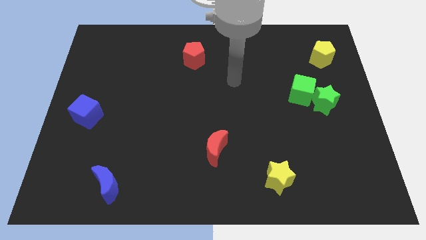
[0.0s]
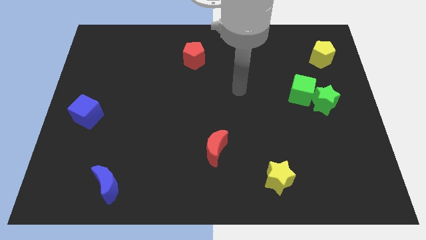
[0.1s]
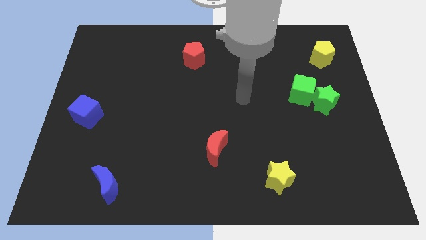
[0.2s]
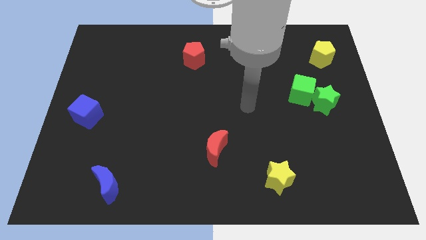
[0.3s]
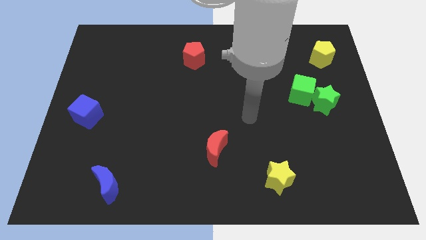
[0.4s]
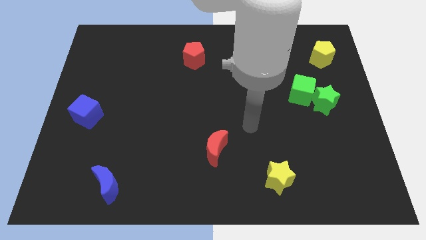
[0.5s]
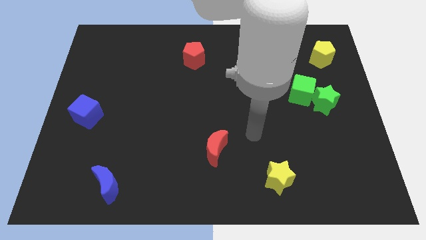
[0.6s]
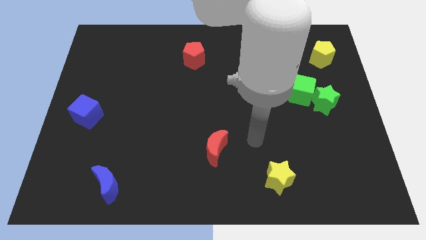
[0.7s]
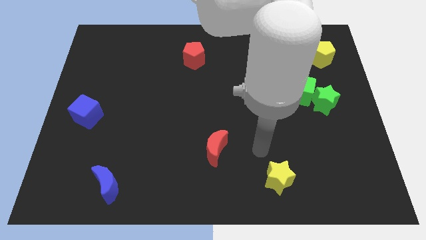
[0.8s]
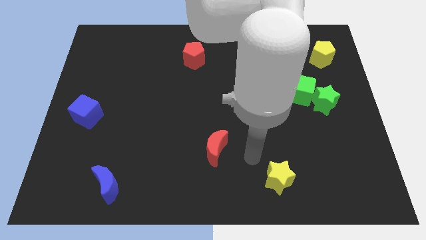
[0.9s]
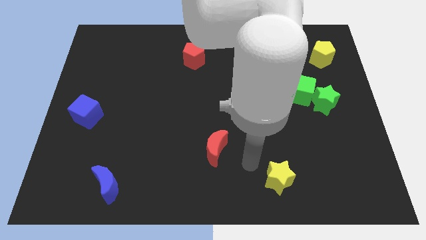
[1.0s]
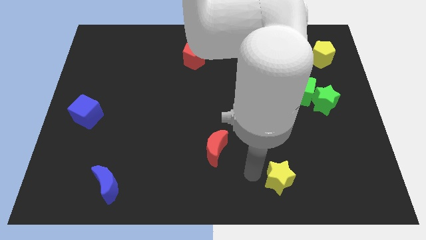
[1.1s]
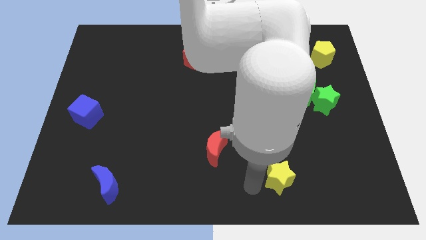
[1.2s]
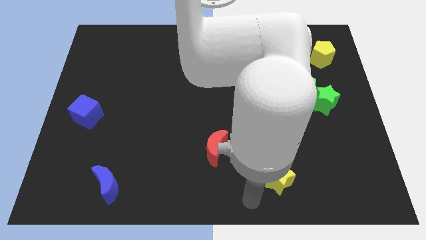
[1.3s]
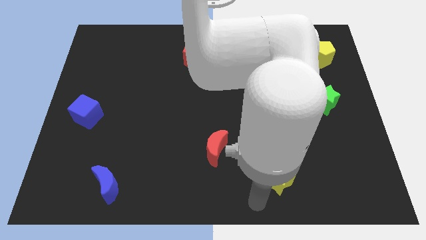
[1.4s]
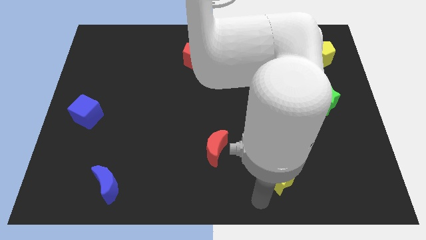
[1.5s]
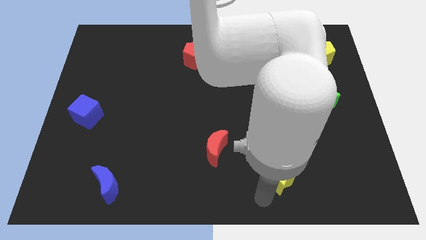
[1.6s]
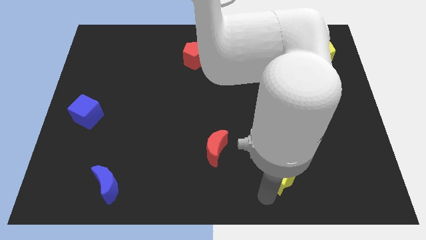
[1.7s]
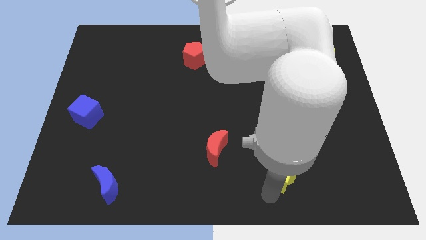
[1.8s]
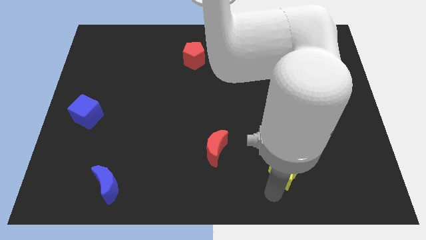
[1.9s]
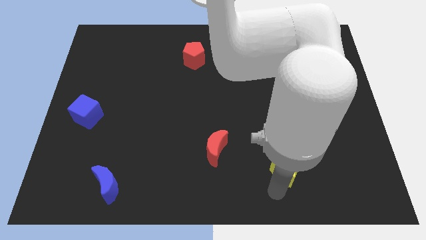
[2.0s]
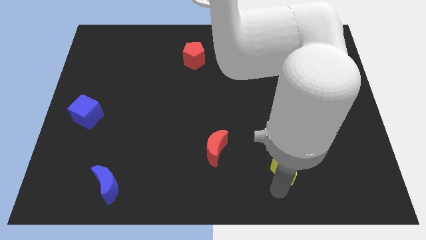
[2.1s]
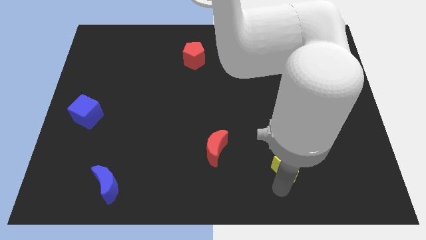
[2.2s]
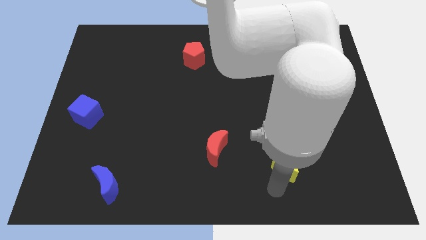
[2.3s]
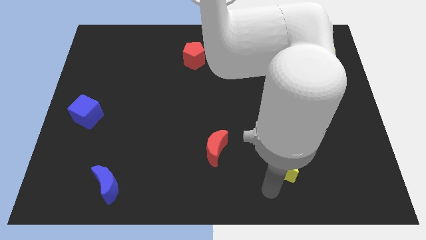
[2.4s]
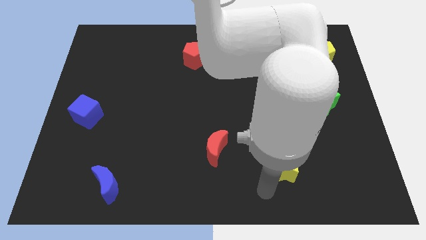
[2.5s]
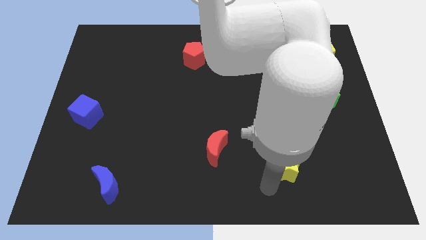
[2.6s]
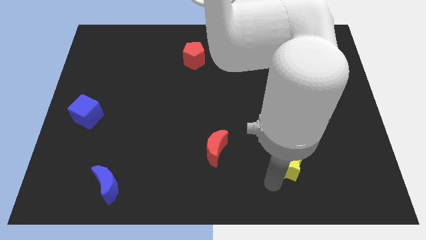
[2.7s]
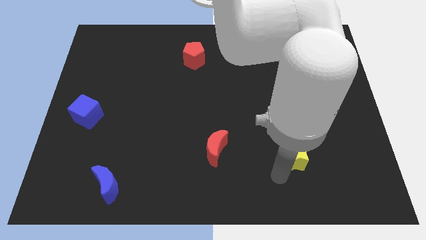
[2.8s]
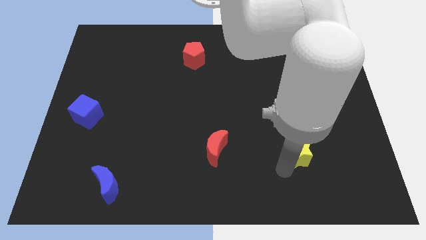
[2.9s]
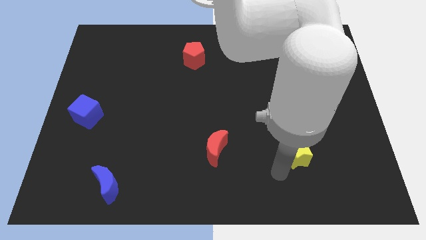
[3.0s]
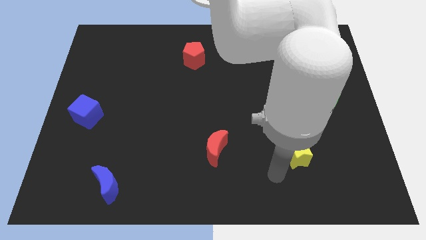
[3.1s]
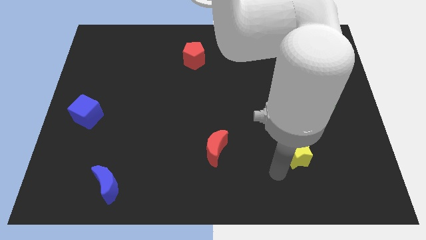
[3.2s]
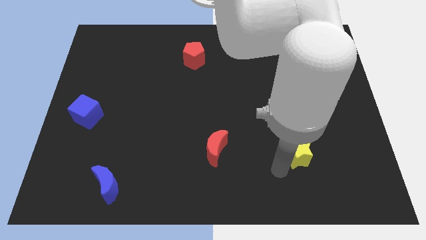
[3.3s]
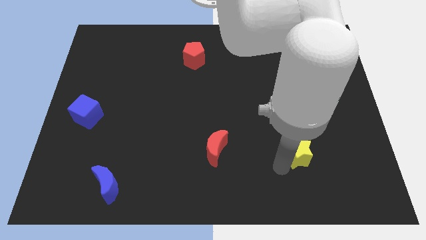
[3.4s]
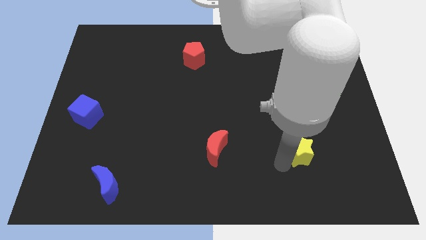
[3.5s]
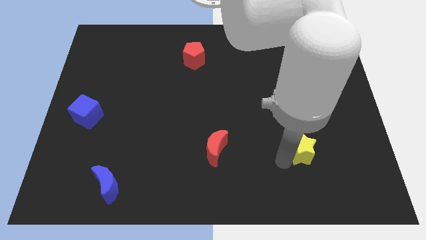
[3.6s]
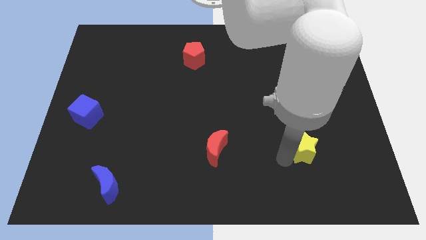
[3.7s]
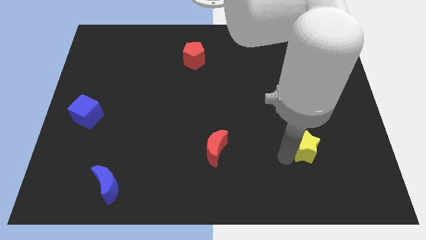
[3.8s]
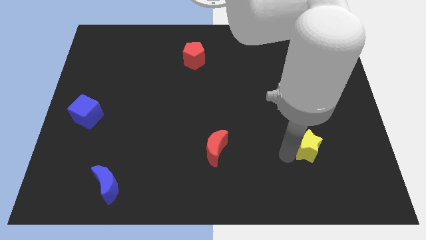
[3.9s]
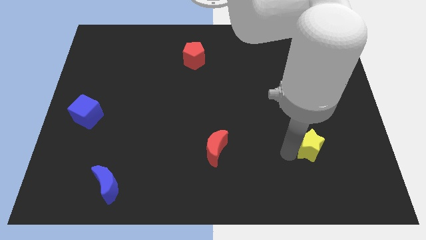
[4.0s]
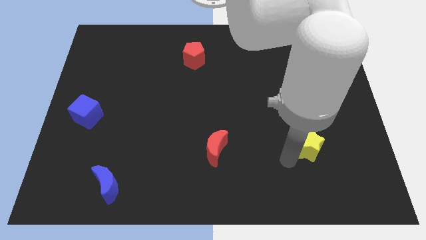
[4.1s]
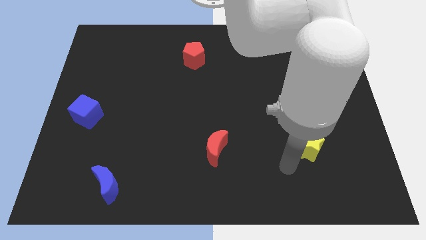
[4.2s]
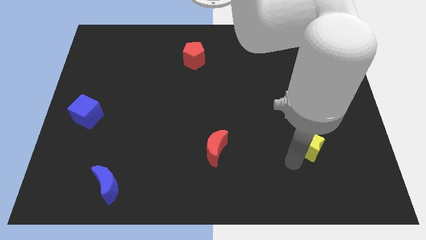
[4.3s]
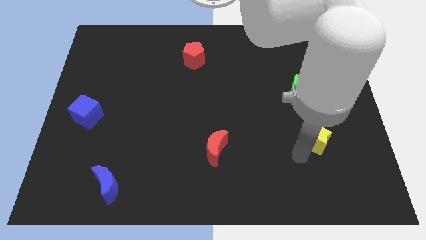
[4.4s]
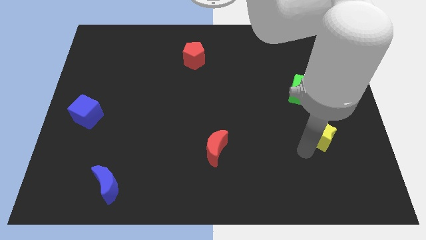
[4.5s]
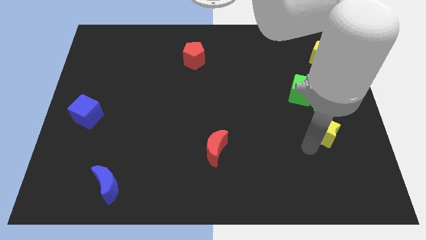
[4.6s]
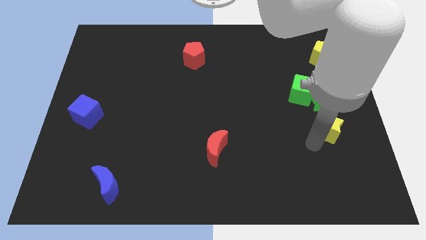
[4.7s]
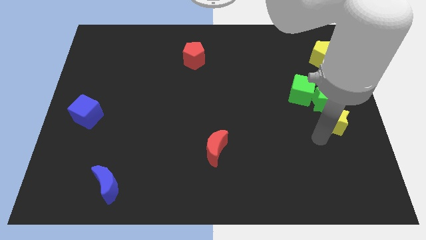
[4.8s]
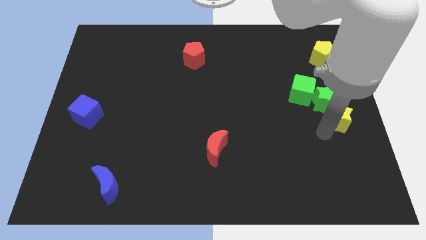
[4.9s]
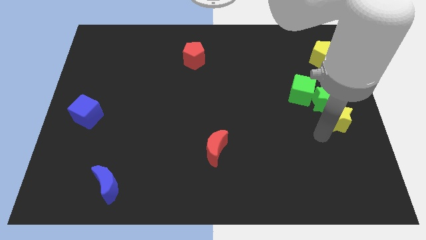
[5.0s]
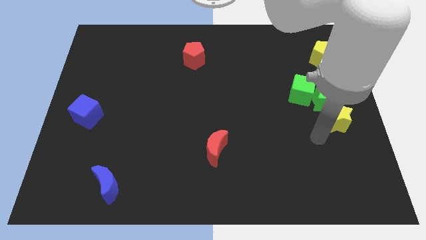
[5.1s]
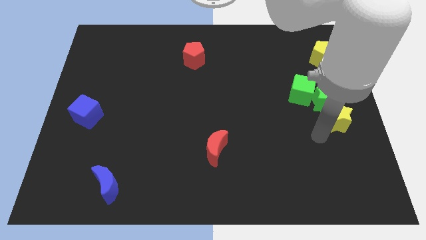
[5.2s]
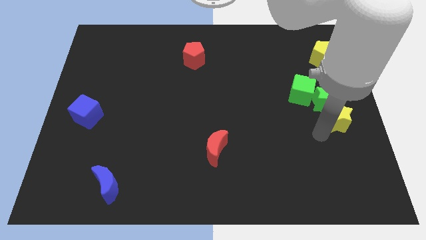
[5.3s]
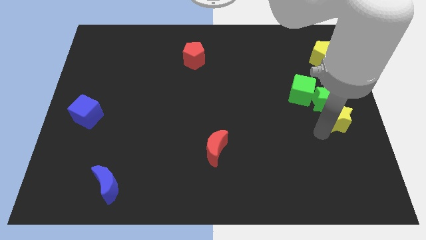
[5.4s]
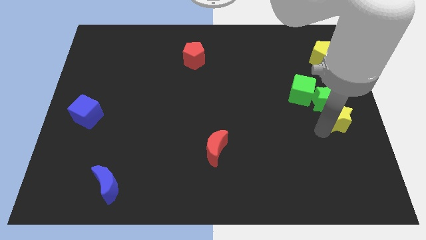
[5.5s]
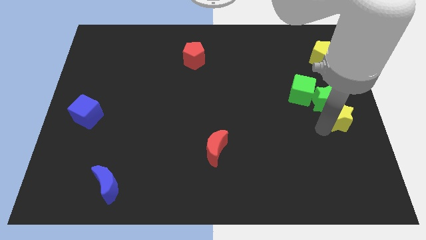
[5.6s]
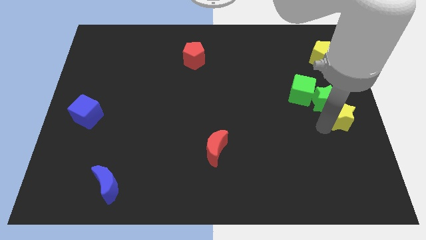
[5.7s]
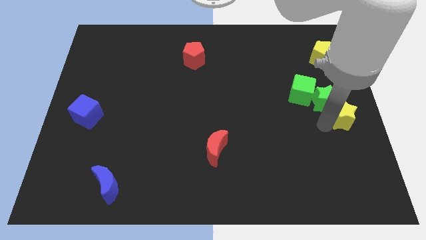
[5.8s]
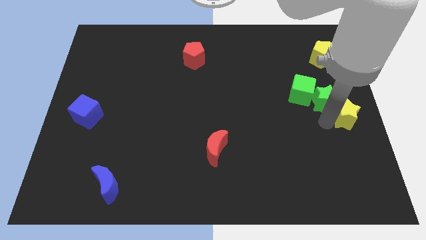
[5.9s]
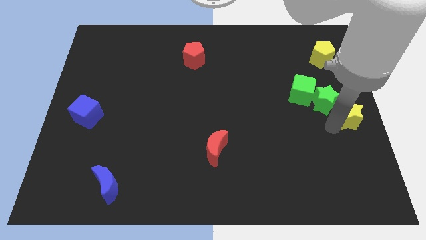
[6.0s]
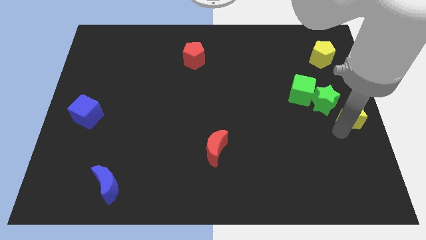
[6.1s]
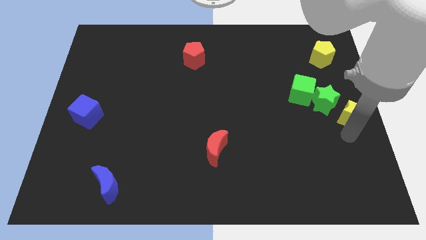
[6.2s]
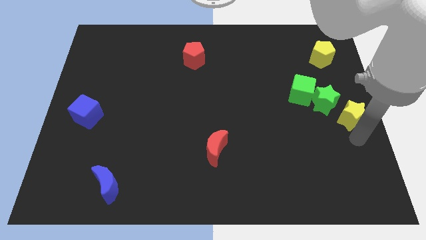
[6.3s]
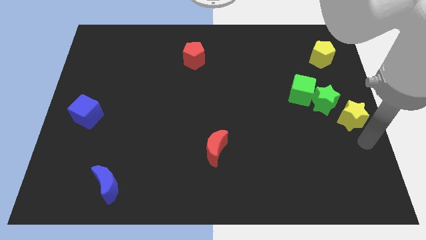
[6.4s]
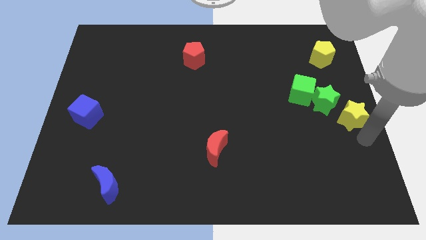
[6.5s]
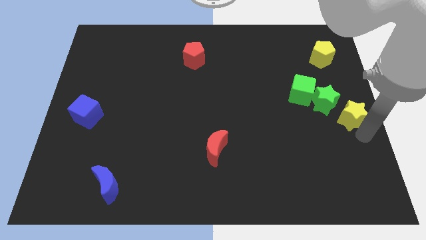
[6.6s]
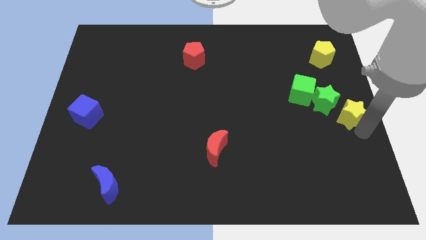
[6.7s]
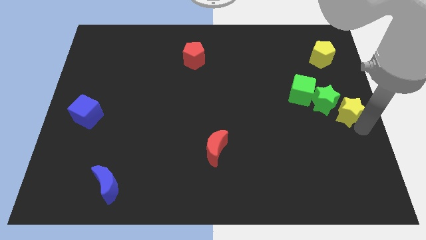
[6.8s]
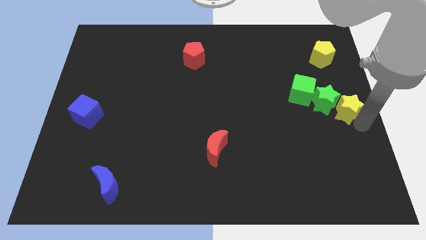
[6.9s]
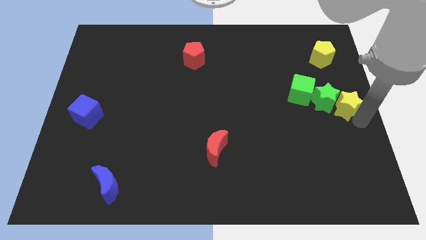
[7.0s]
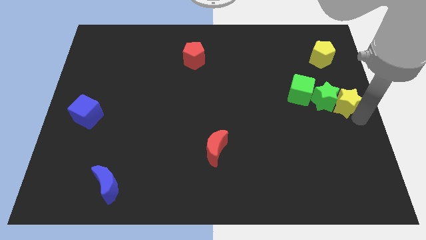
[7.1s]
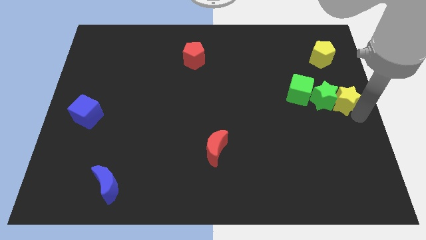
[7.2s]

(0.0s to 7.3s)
push the yellow star below the yellow pentagon
